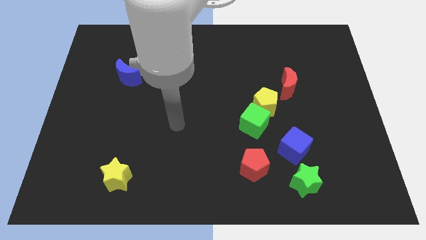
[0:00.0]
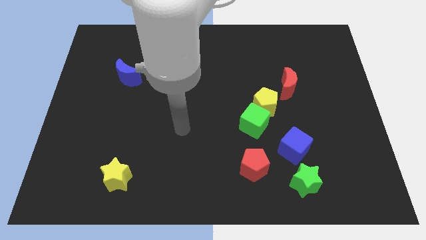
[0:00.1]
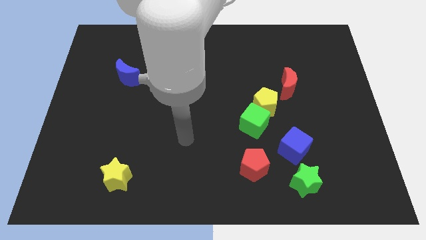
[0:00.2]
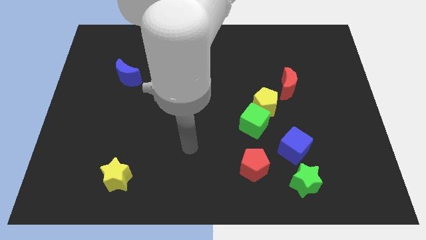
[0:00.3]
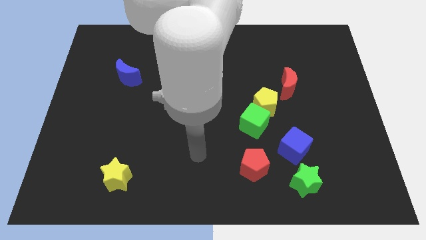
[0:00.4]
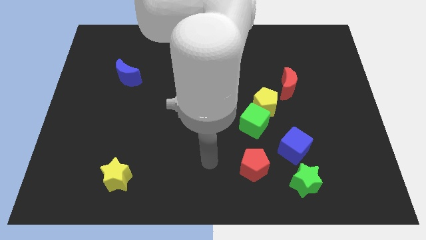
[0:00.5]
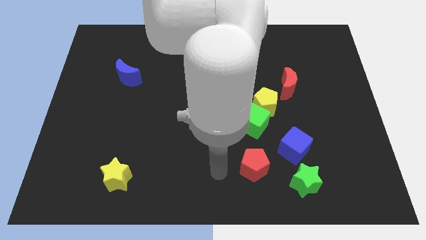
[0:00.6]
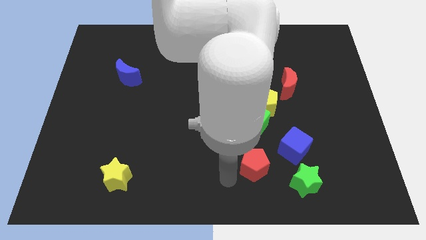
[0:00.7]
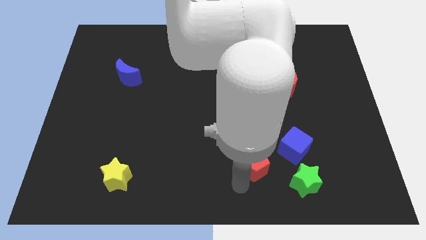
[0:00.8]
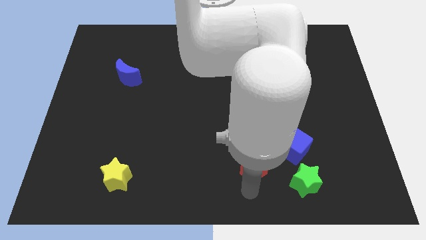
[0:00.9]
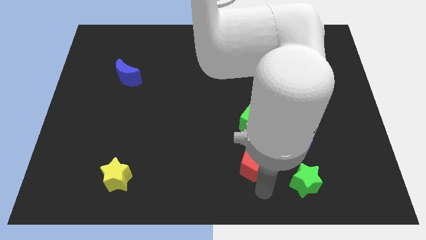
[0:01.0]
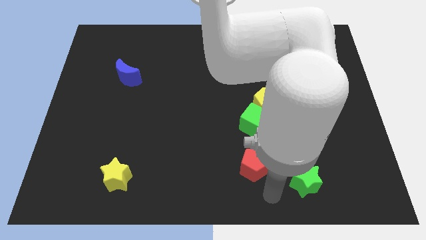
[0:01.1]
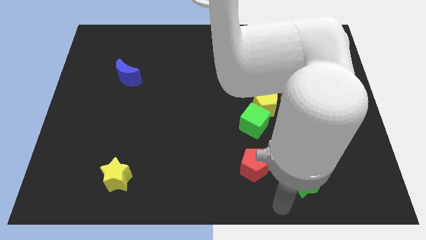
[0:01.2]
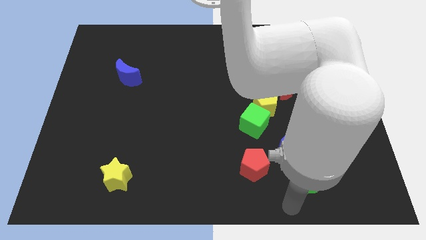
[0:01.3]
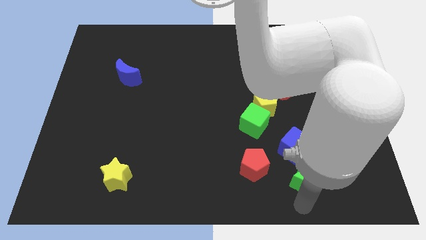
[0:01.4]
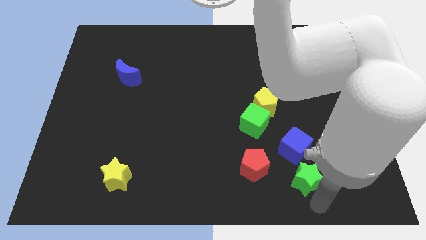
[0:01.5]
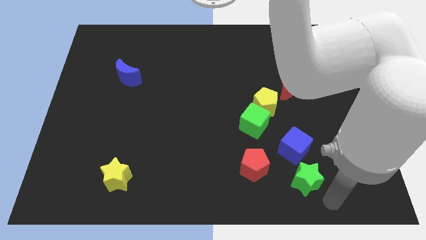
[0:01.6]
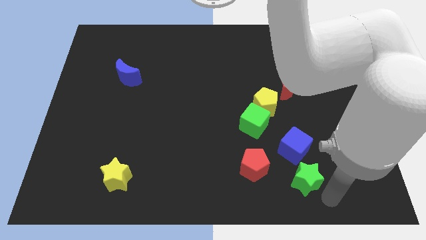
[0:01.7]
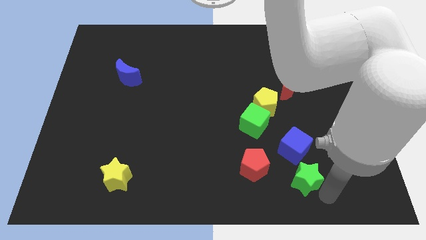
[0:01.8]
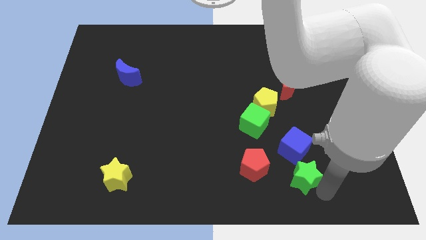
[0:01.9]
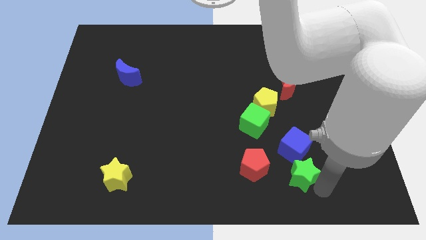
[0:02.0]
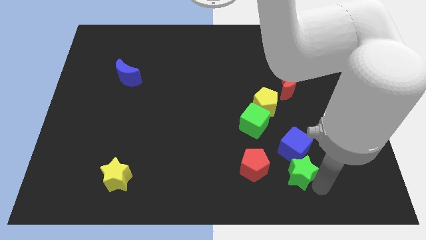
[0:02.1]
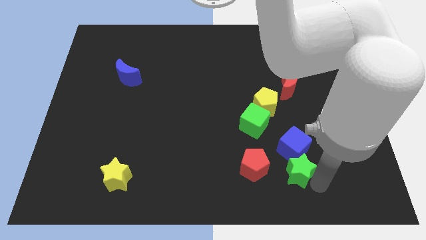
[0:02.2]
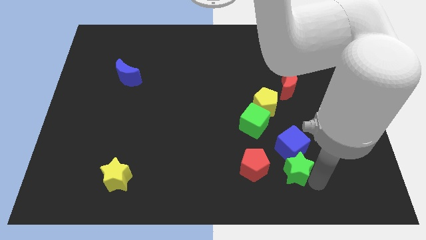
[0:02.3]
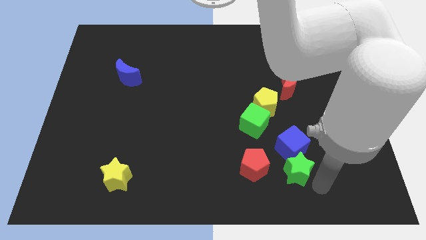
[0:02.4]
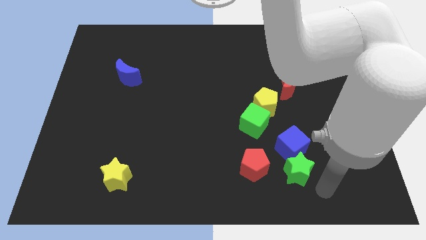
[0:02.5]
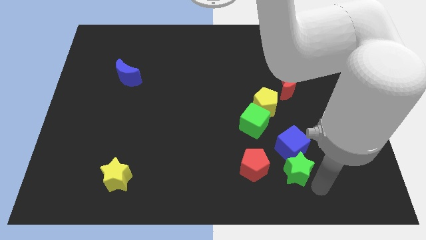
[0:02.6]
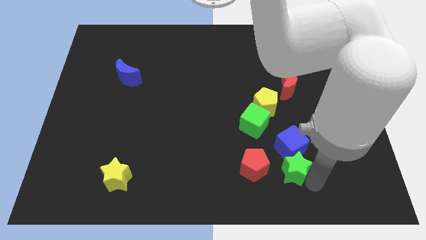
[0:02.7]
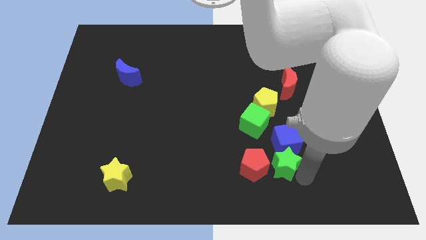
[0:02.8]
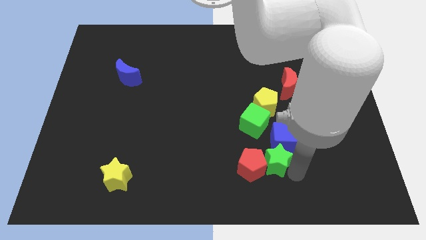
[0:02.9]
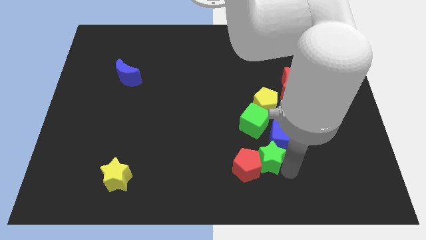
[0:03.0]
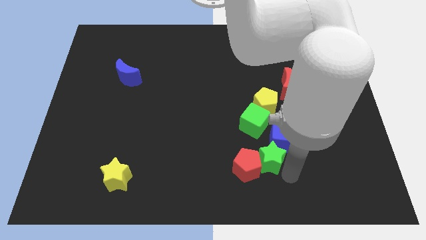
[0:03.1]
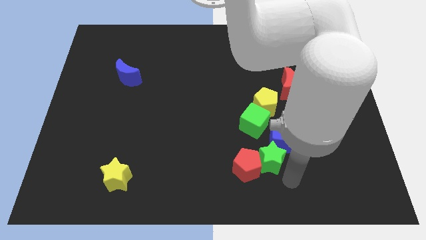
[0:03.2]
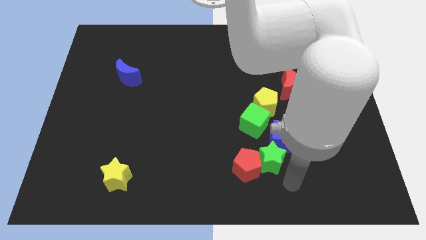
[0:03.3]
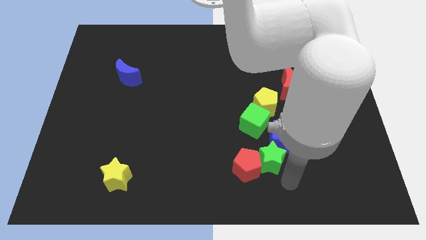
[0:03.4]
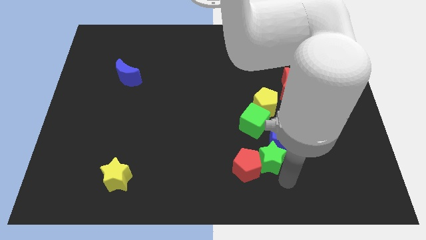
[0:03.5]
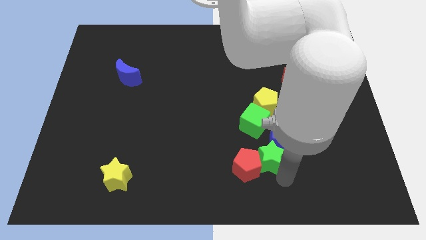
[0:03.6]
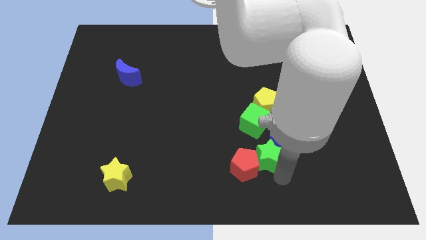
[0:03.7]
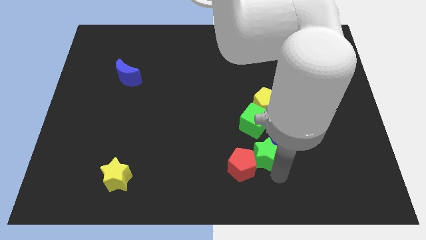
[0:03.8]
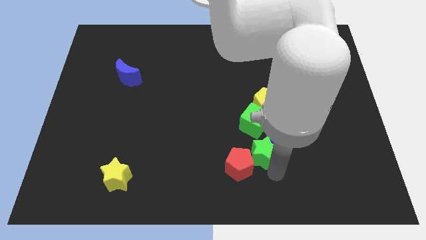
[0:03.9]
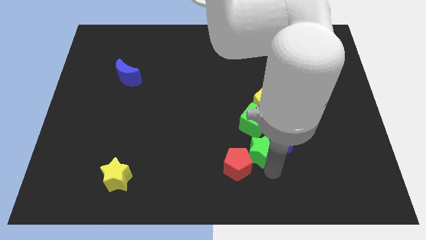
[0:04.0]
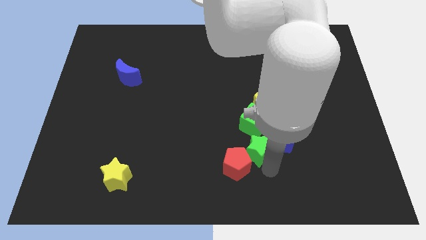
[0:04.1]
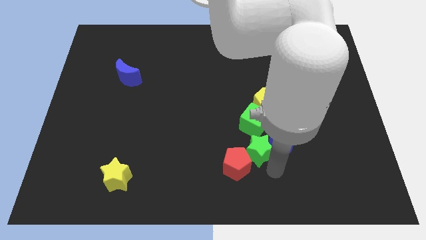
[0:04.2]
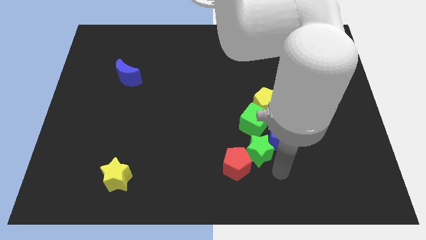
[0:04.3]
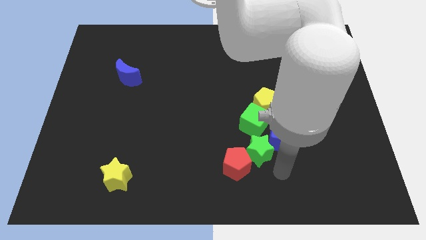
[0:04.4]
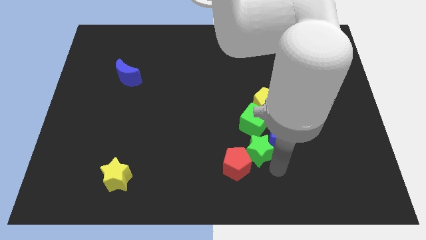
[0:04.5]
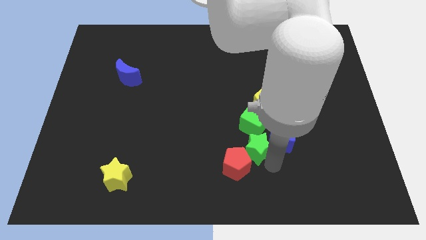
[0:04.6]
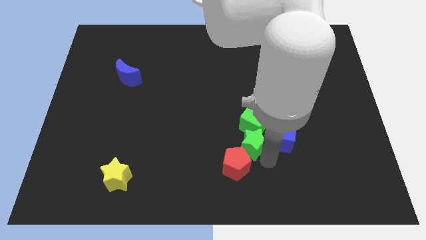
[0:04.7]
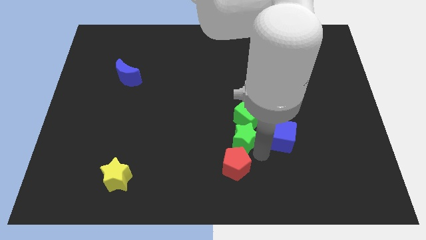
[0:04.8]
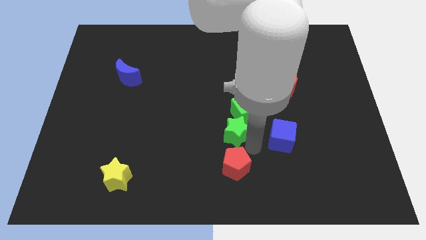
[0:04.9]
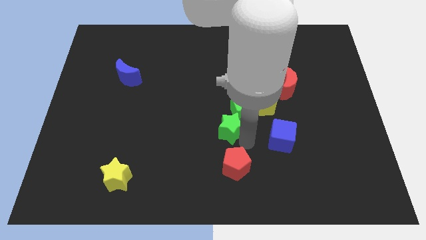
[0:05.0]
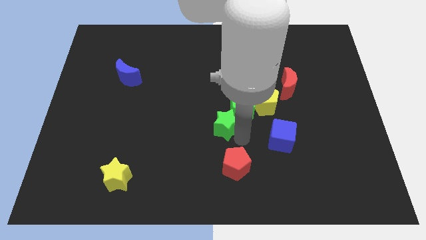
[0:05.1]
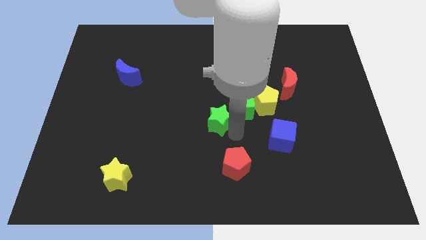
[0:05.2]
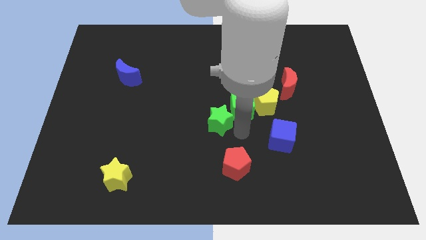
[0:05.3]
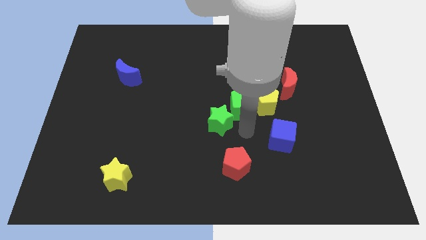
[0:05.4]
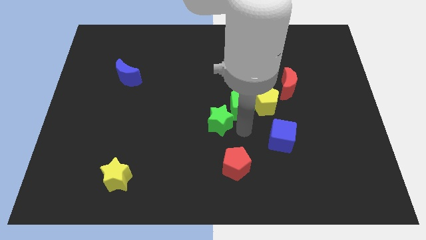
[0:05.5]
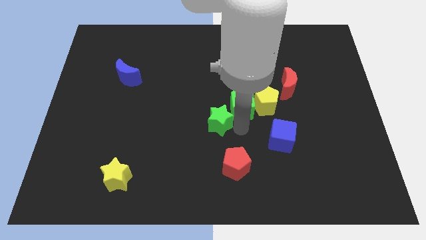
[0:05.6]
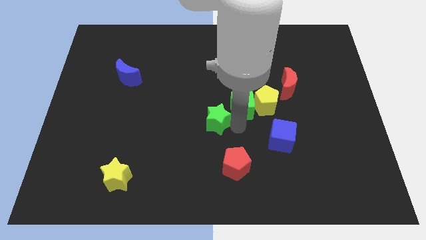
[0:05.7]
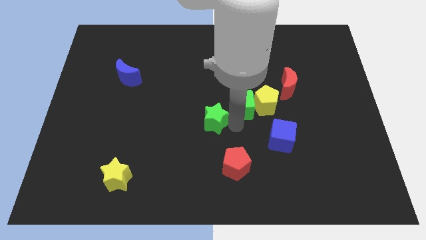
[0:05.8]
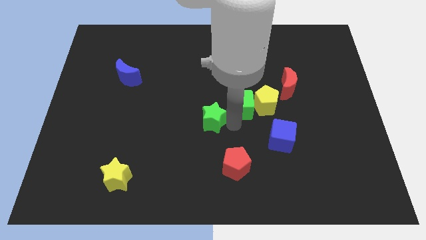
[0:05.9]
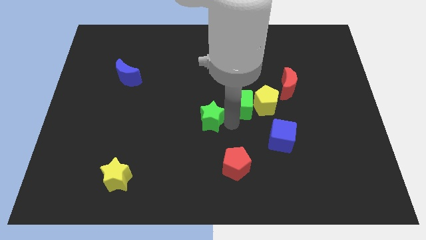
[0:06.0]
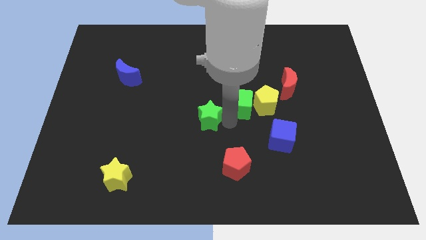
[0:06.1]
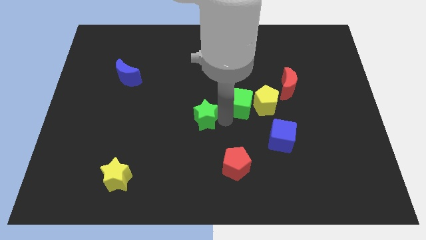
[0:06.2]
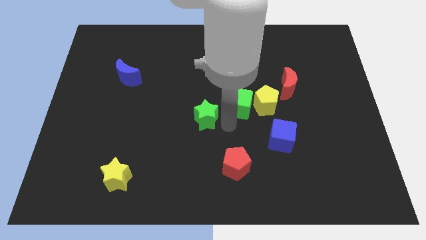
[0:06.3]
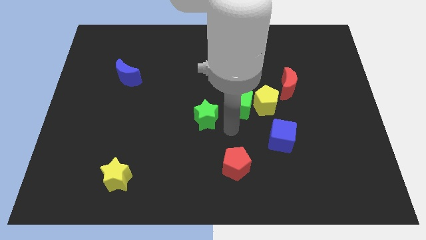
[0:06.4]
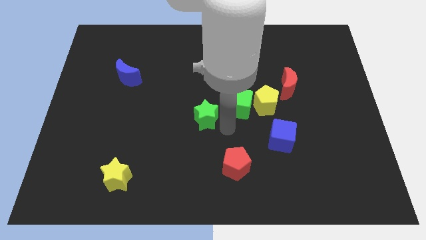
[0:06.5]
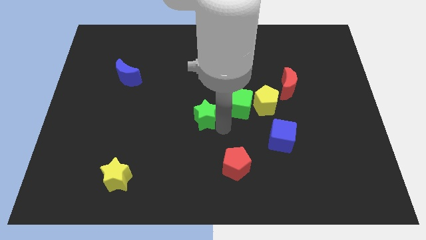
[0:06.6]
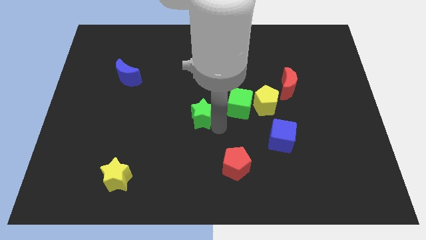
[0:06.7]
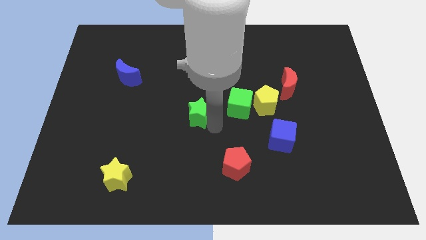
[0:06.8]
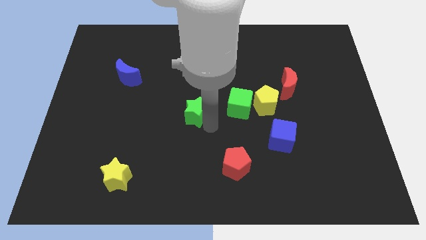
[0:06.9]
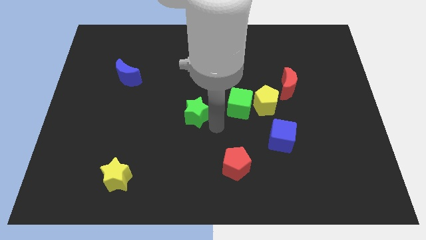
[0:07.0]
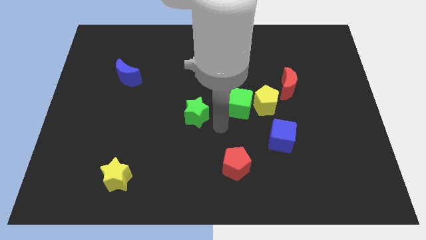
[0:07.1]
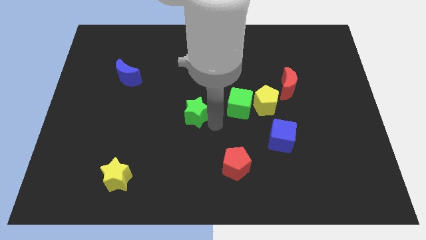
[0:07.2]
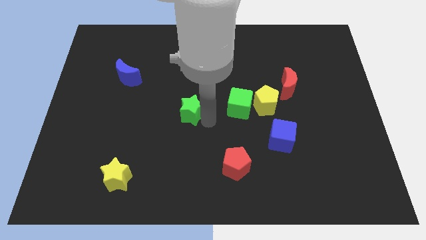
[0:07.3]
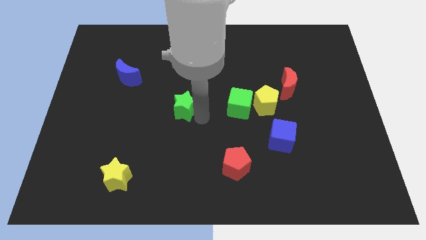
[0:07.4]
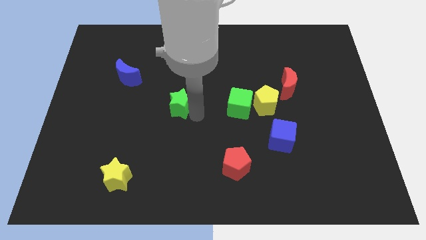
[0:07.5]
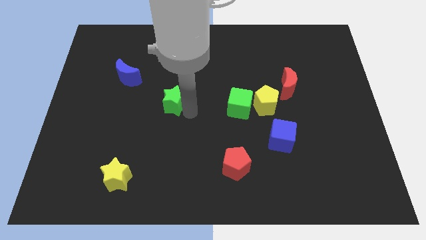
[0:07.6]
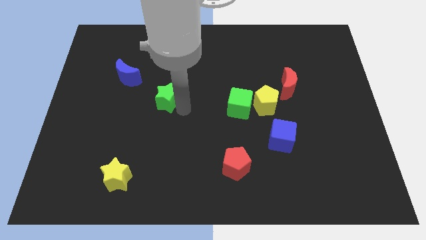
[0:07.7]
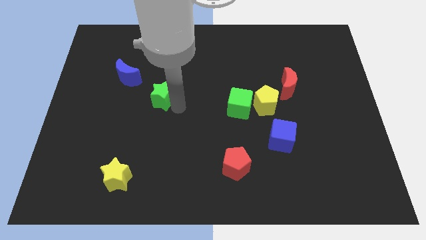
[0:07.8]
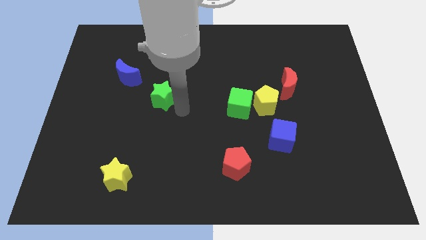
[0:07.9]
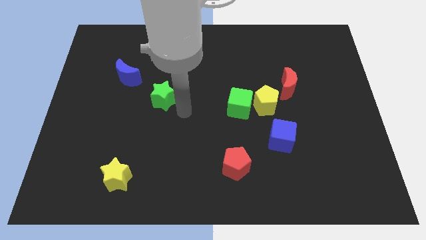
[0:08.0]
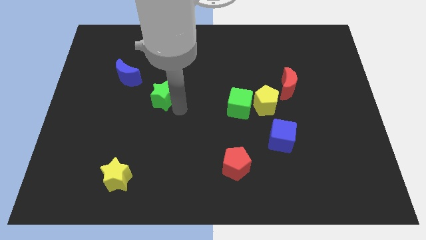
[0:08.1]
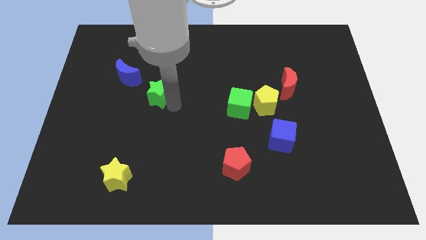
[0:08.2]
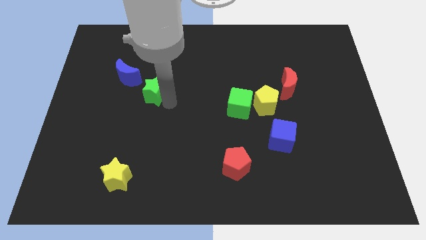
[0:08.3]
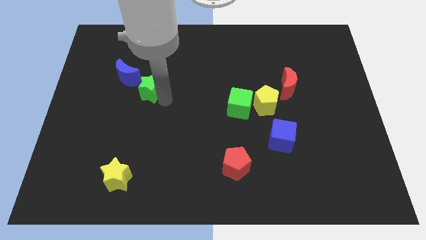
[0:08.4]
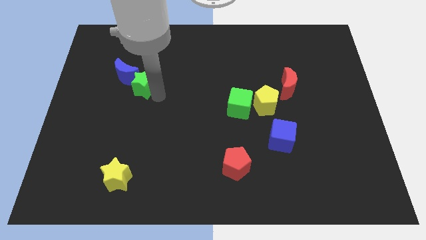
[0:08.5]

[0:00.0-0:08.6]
put the green star towards the blue moon
